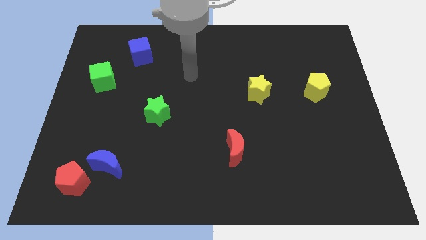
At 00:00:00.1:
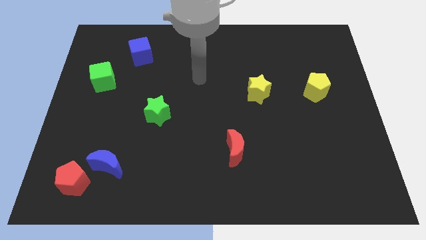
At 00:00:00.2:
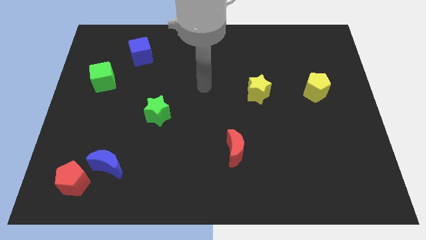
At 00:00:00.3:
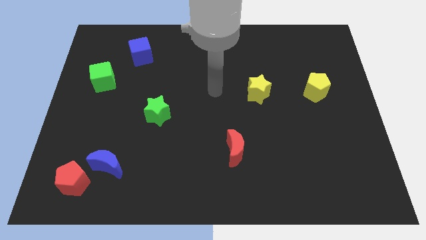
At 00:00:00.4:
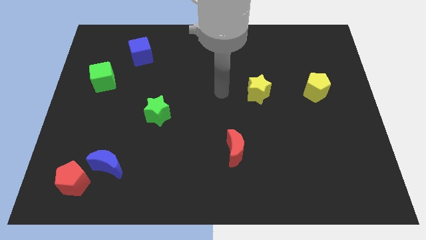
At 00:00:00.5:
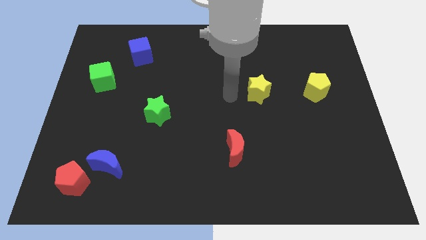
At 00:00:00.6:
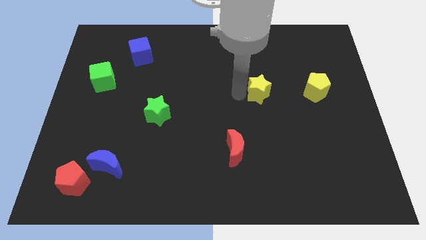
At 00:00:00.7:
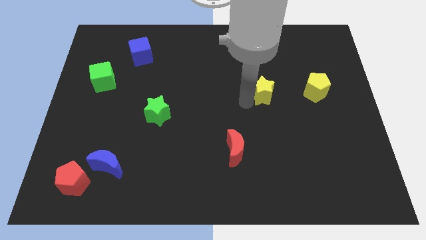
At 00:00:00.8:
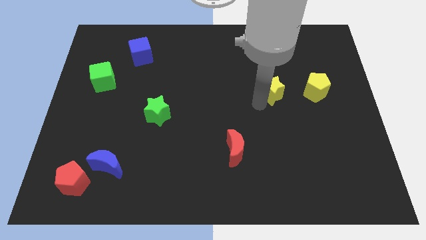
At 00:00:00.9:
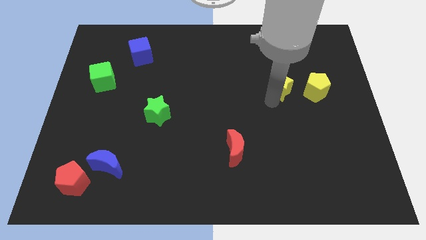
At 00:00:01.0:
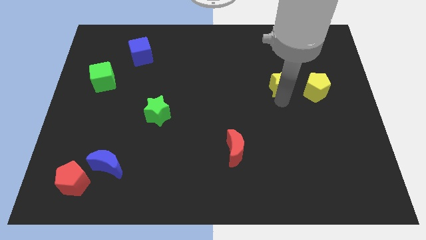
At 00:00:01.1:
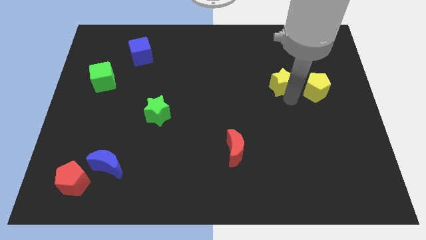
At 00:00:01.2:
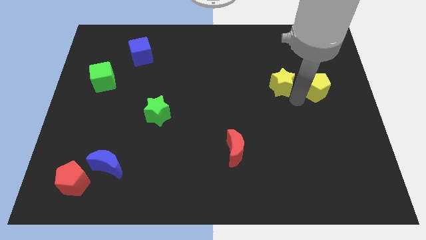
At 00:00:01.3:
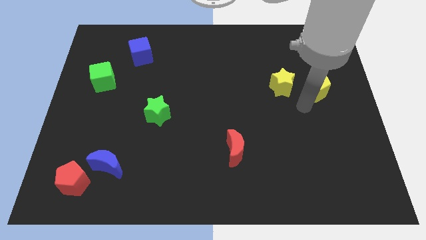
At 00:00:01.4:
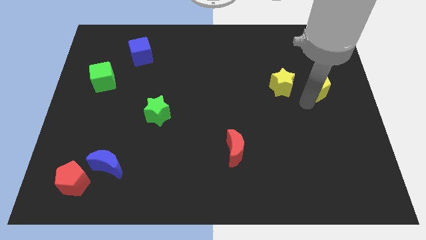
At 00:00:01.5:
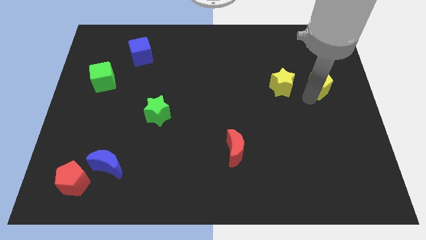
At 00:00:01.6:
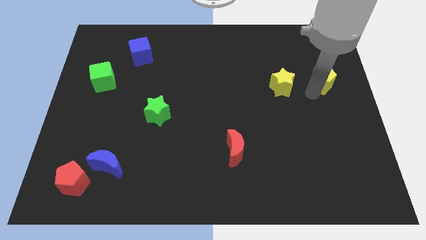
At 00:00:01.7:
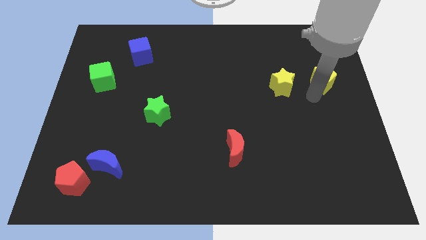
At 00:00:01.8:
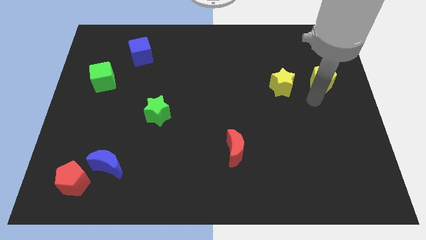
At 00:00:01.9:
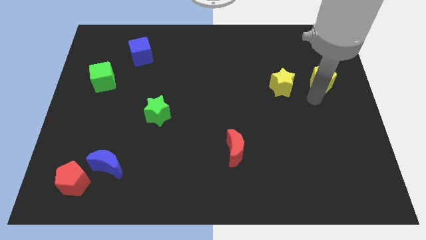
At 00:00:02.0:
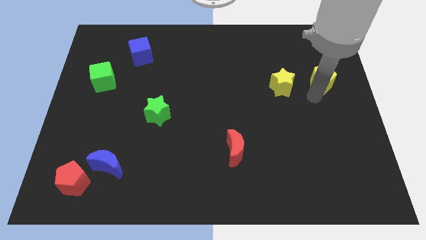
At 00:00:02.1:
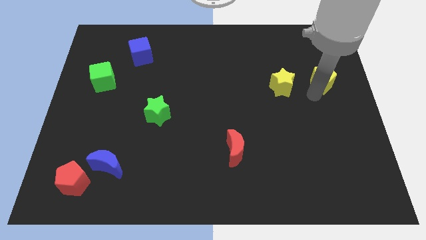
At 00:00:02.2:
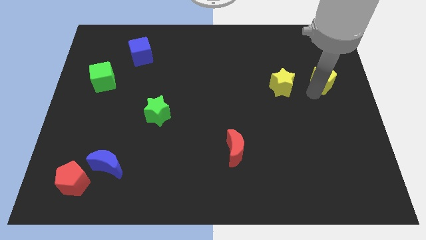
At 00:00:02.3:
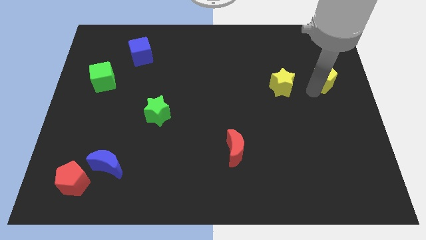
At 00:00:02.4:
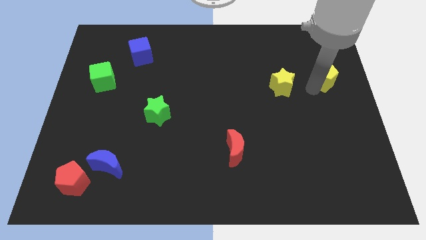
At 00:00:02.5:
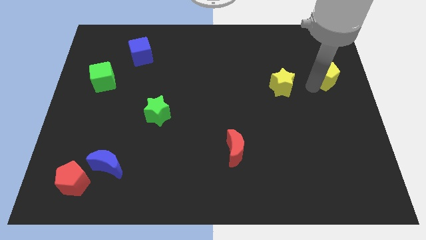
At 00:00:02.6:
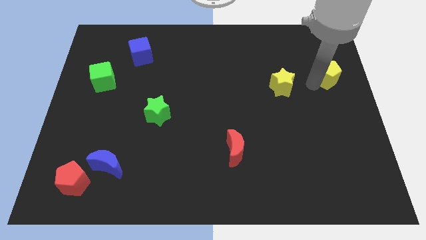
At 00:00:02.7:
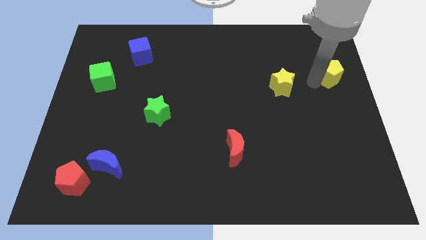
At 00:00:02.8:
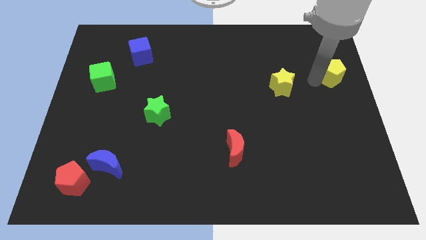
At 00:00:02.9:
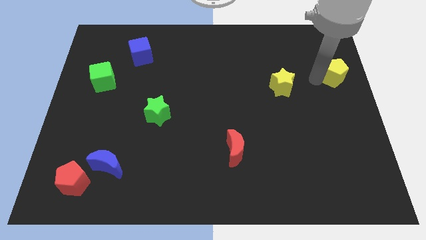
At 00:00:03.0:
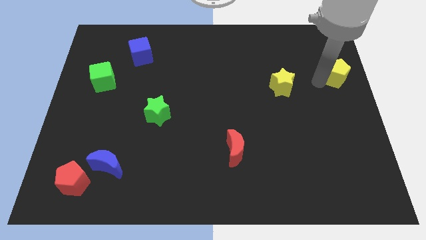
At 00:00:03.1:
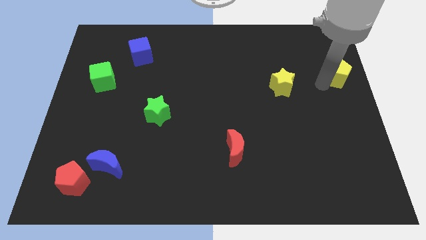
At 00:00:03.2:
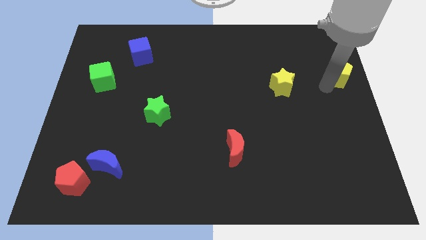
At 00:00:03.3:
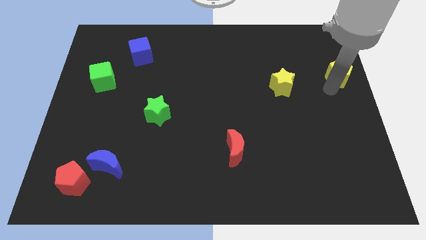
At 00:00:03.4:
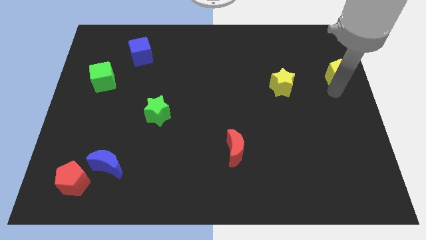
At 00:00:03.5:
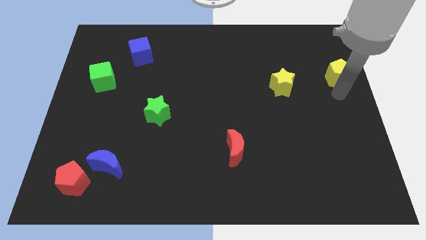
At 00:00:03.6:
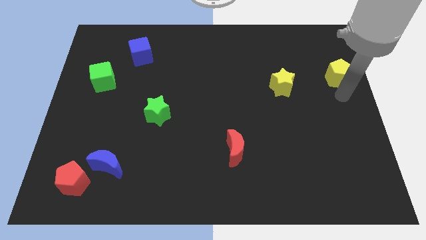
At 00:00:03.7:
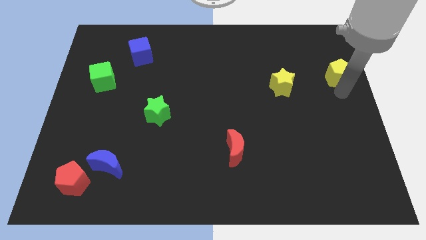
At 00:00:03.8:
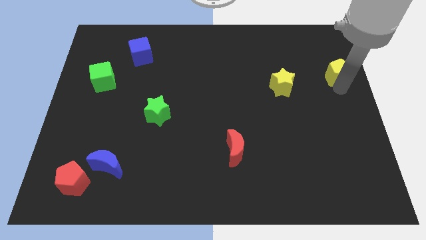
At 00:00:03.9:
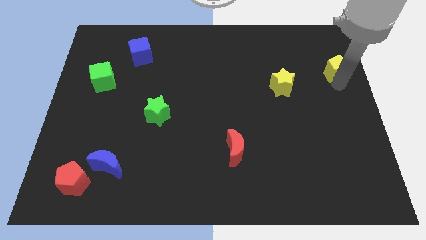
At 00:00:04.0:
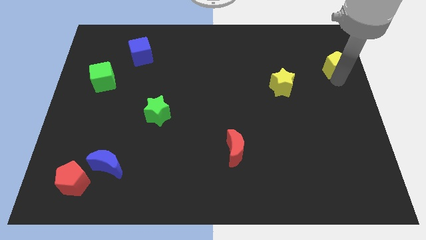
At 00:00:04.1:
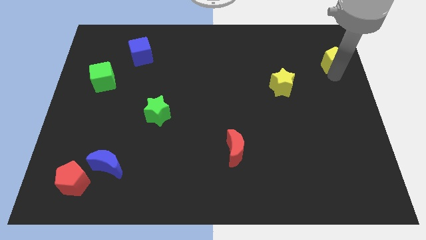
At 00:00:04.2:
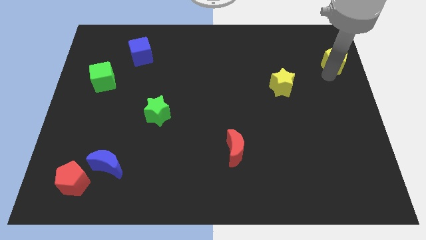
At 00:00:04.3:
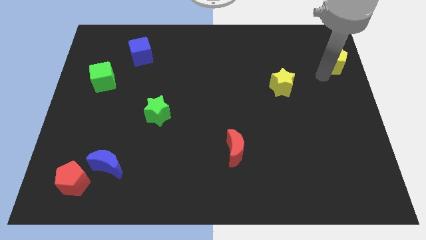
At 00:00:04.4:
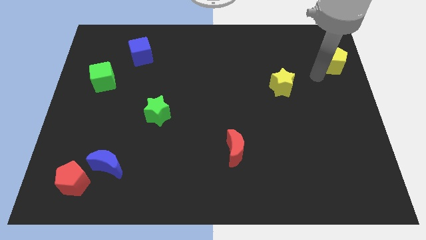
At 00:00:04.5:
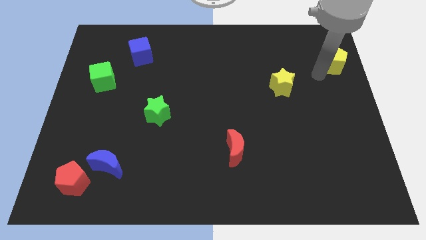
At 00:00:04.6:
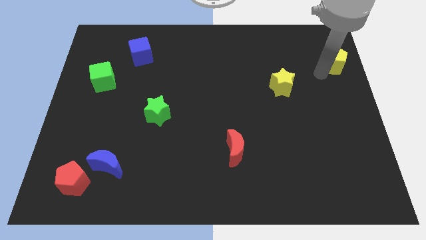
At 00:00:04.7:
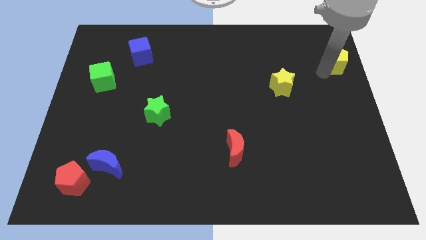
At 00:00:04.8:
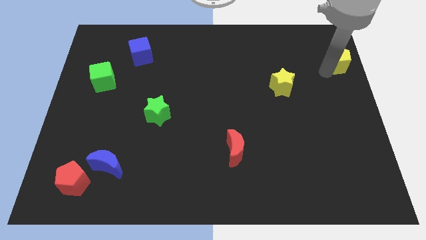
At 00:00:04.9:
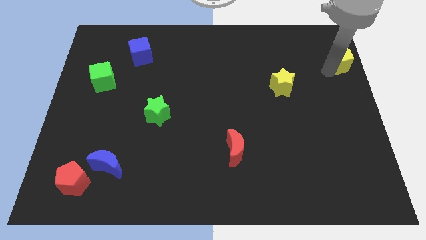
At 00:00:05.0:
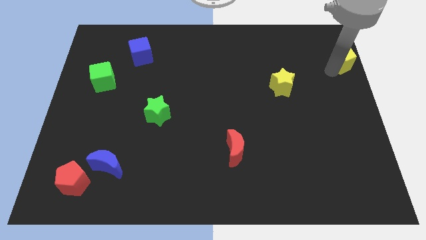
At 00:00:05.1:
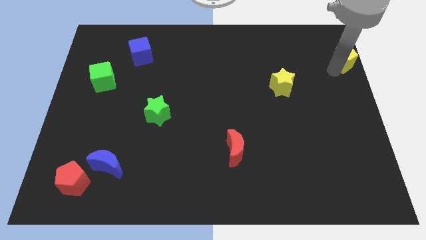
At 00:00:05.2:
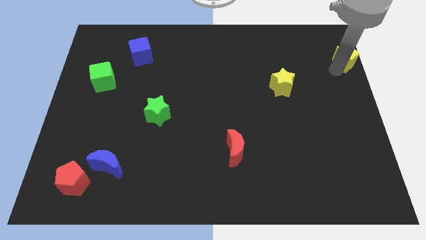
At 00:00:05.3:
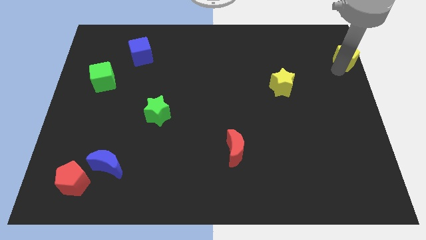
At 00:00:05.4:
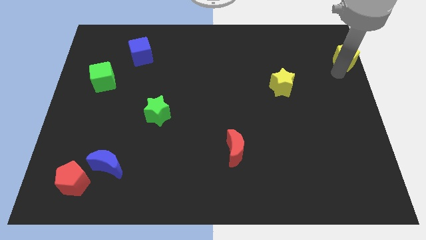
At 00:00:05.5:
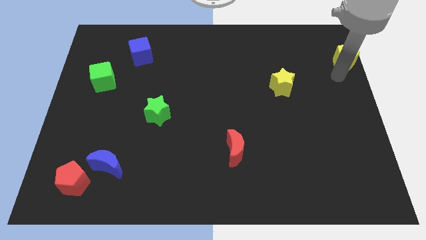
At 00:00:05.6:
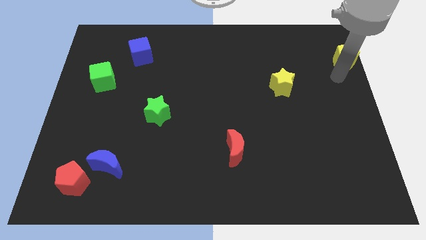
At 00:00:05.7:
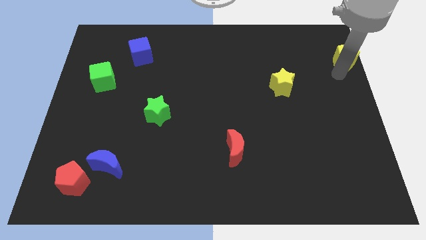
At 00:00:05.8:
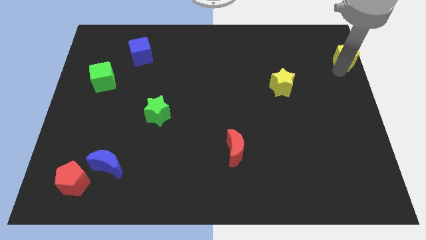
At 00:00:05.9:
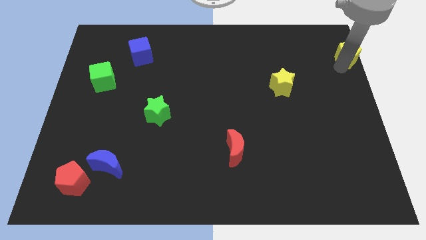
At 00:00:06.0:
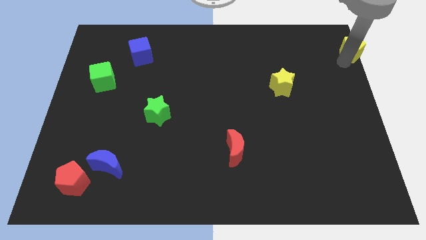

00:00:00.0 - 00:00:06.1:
push the yellow pentagon to the top right

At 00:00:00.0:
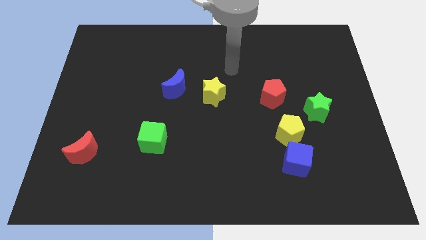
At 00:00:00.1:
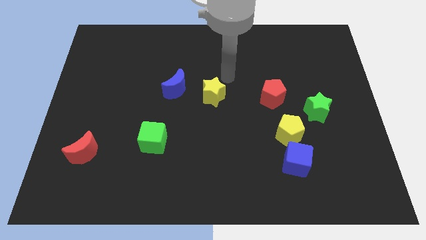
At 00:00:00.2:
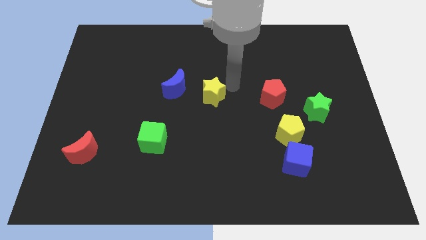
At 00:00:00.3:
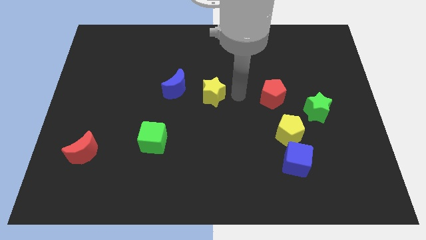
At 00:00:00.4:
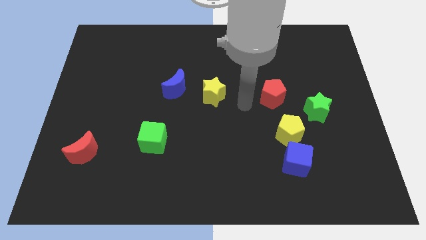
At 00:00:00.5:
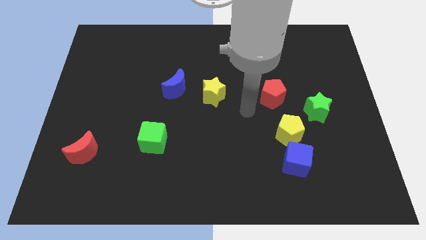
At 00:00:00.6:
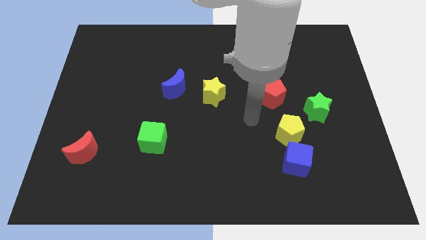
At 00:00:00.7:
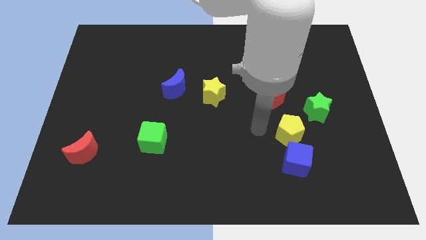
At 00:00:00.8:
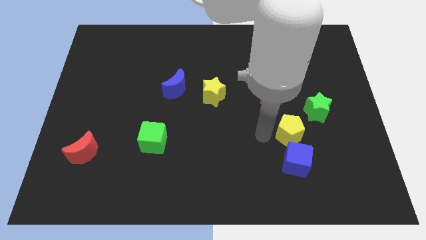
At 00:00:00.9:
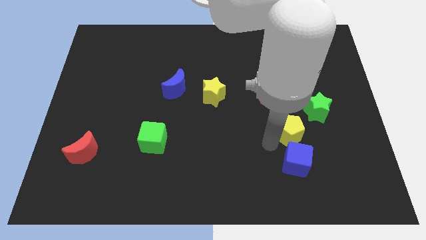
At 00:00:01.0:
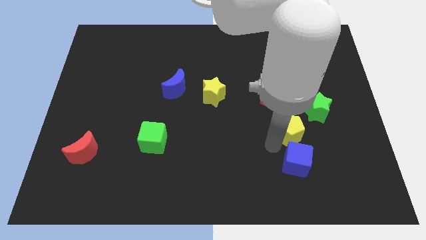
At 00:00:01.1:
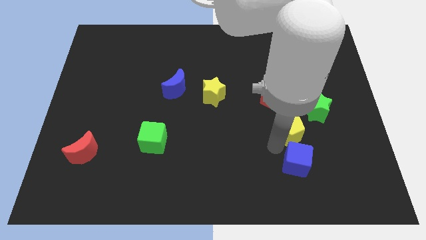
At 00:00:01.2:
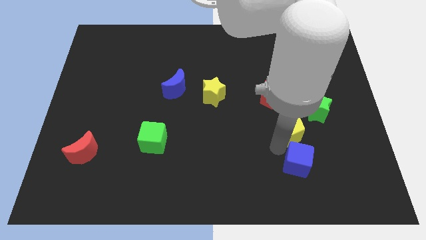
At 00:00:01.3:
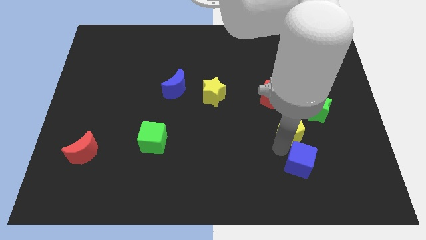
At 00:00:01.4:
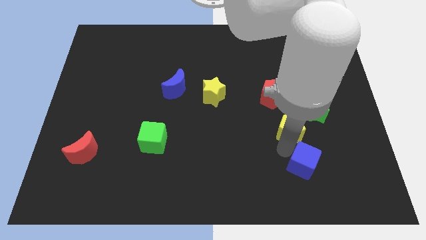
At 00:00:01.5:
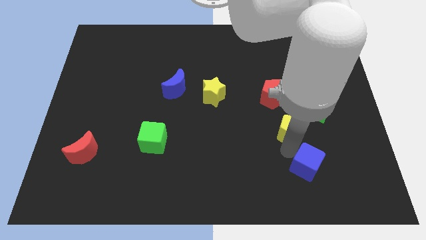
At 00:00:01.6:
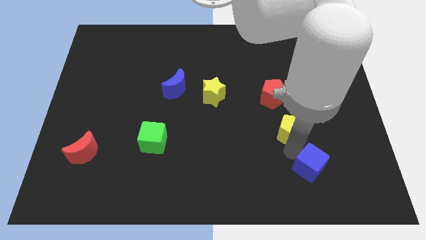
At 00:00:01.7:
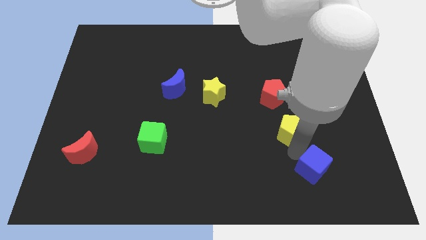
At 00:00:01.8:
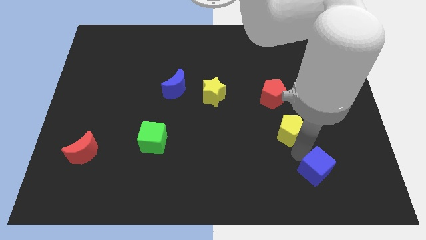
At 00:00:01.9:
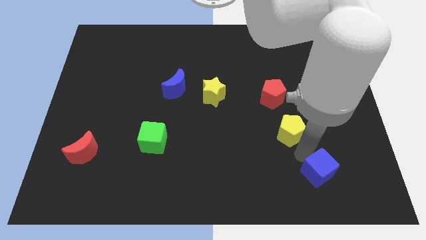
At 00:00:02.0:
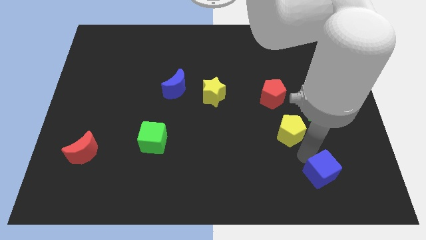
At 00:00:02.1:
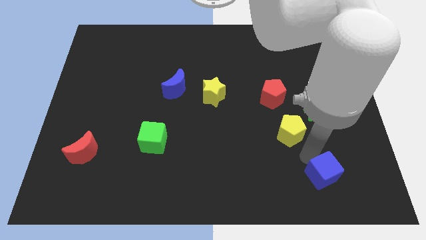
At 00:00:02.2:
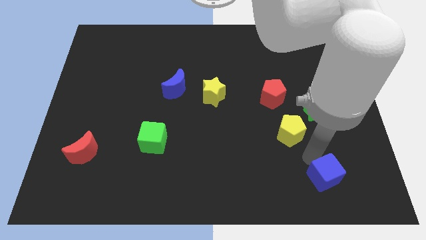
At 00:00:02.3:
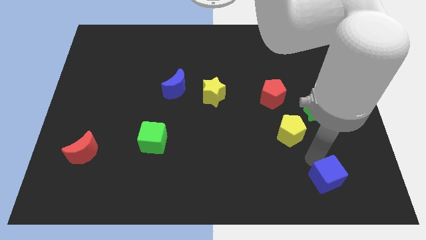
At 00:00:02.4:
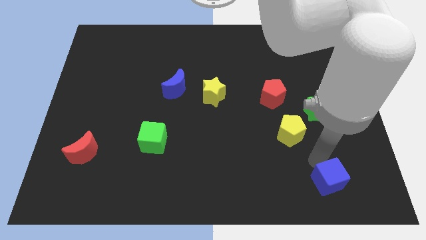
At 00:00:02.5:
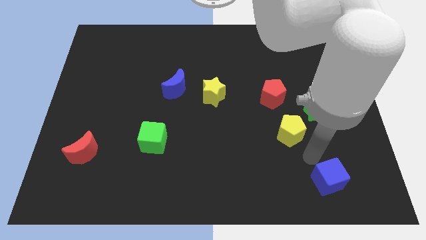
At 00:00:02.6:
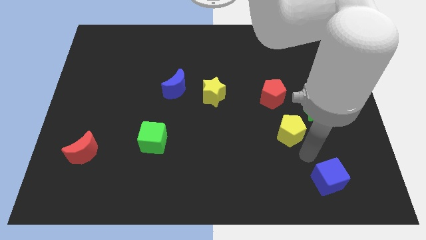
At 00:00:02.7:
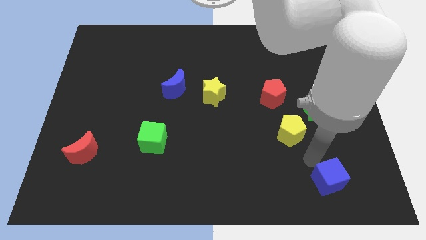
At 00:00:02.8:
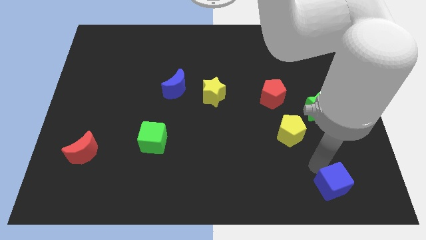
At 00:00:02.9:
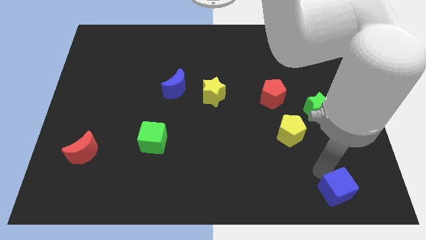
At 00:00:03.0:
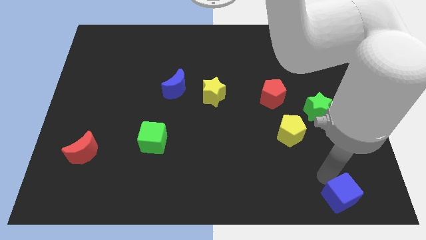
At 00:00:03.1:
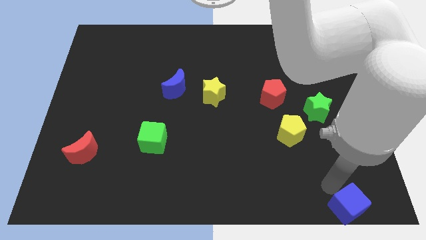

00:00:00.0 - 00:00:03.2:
move the blue cube to the bottom right
